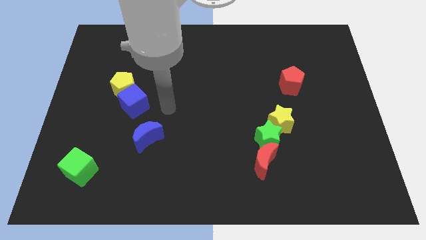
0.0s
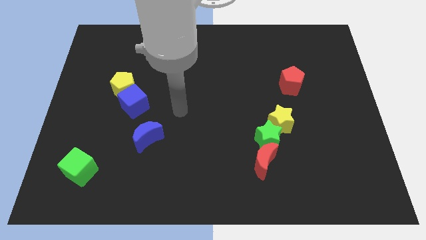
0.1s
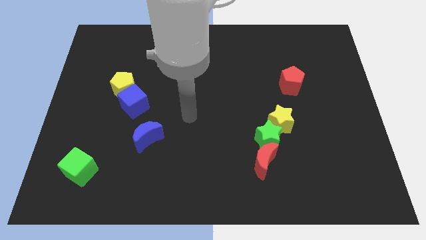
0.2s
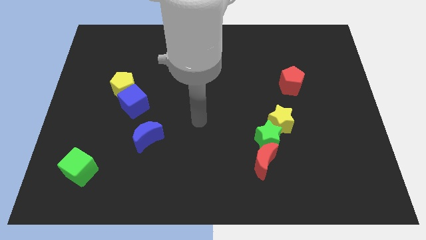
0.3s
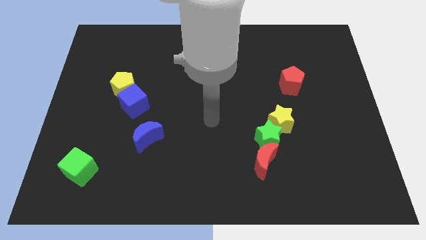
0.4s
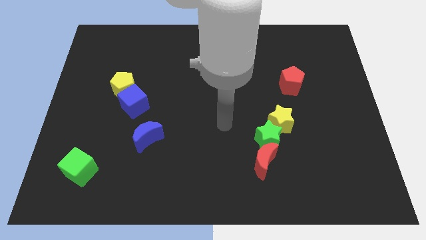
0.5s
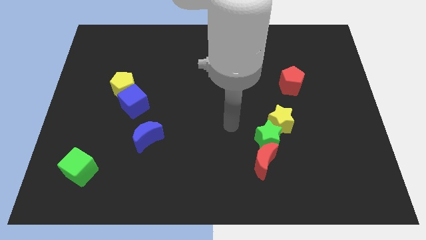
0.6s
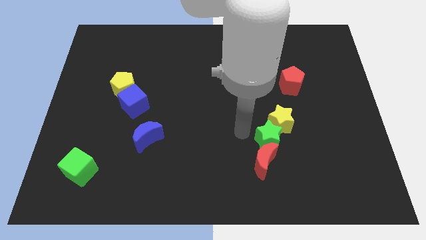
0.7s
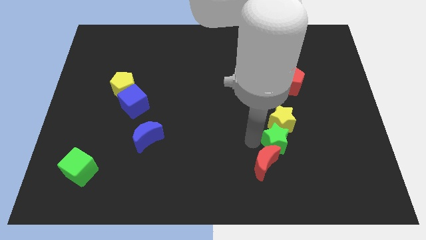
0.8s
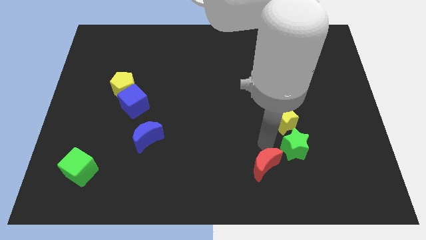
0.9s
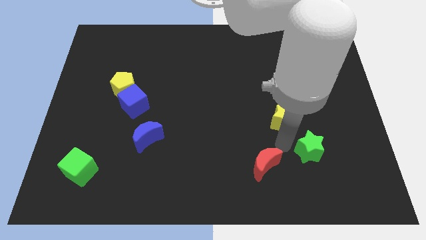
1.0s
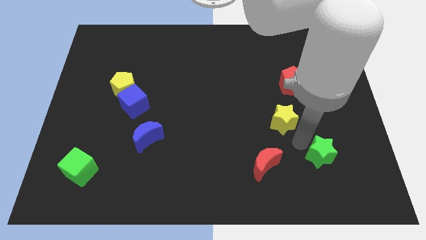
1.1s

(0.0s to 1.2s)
separate the yellow star from the green star

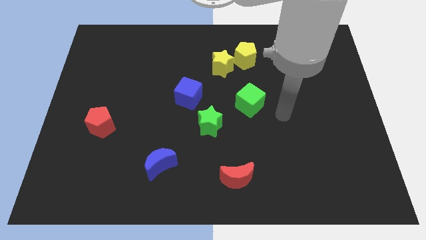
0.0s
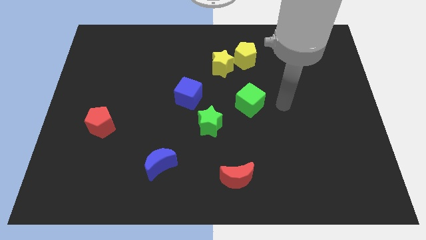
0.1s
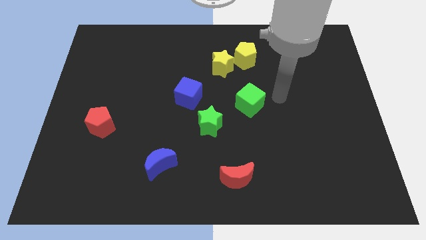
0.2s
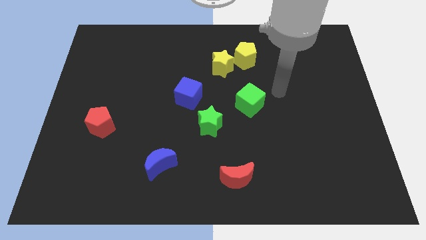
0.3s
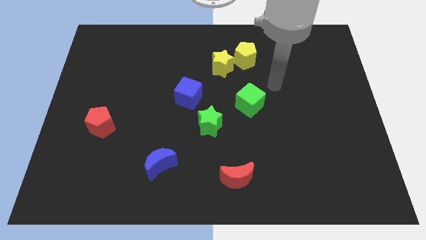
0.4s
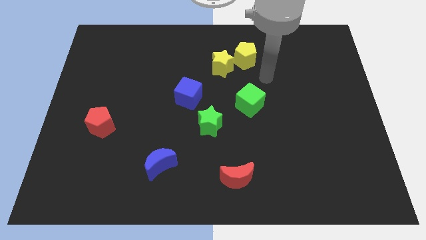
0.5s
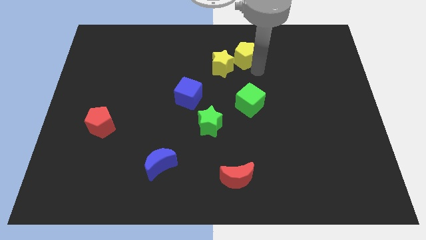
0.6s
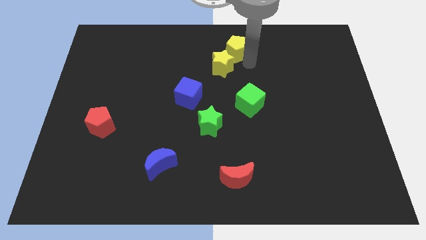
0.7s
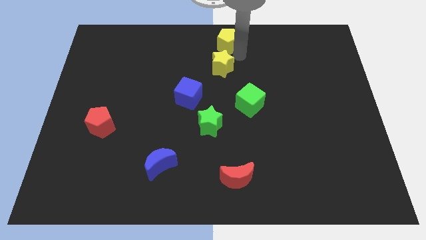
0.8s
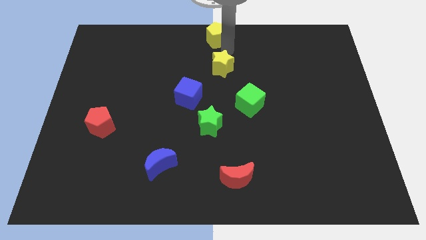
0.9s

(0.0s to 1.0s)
move the yellow star away from the yellow pentagon

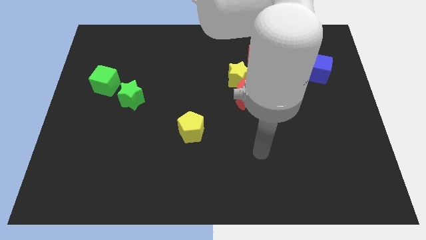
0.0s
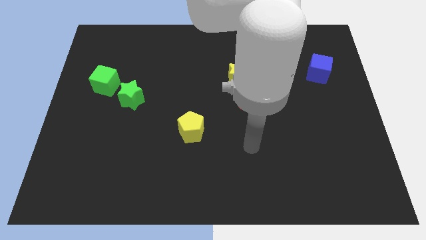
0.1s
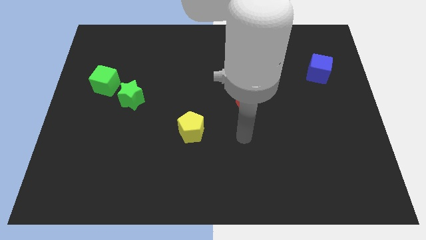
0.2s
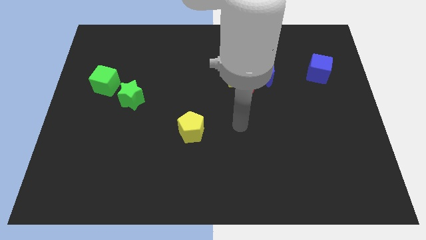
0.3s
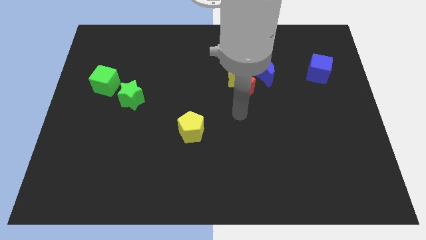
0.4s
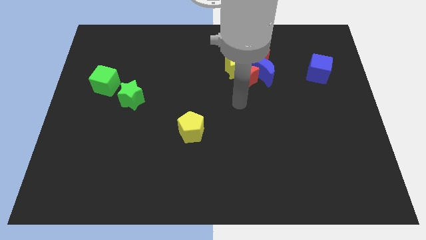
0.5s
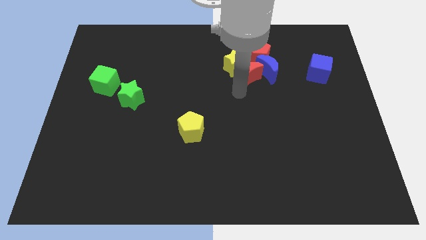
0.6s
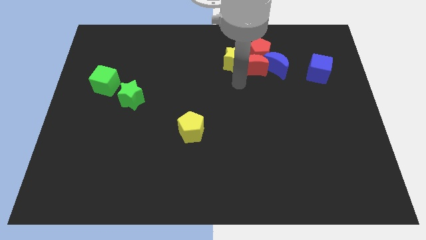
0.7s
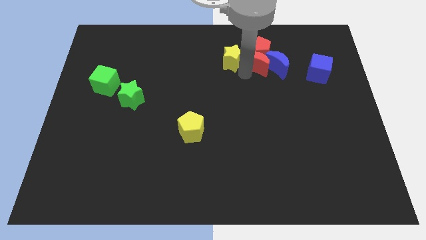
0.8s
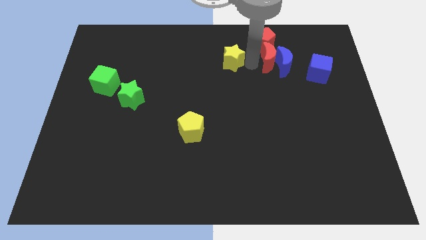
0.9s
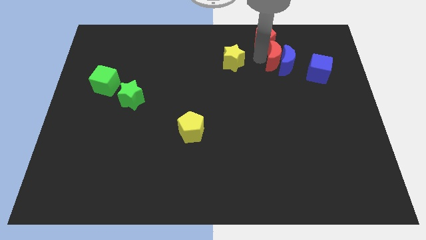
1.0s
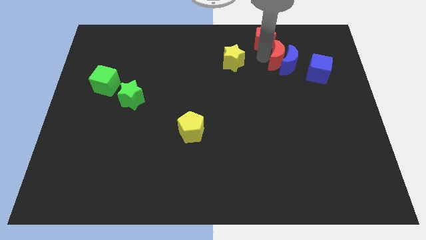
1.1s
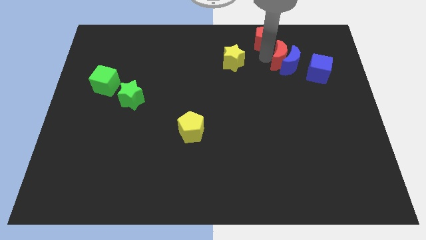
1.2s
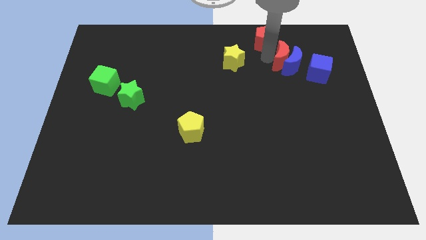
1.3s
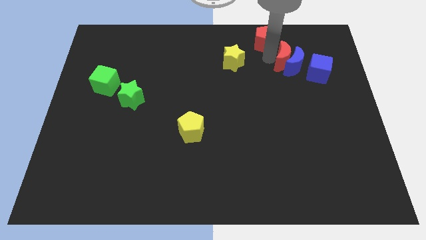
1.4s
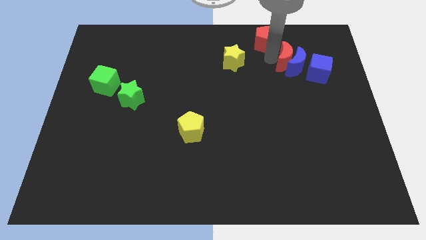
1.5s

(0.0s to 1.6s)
pull the blue moon apart from the red pentagon, yellow star, and red moon

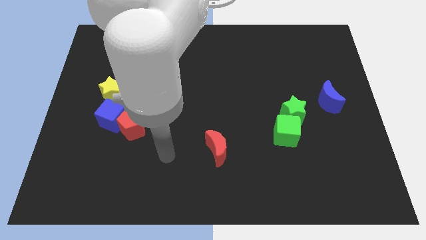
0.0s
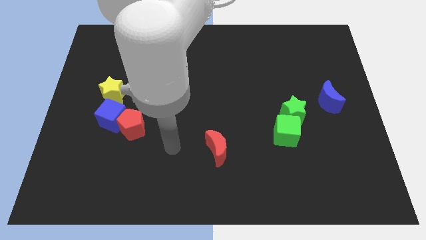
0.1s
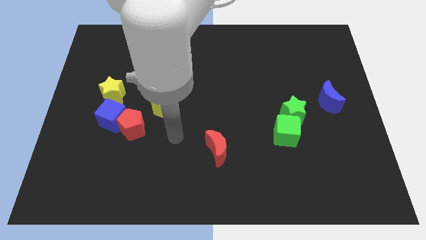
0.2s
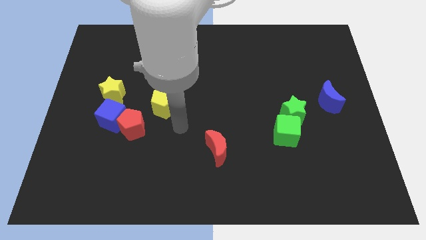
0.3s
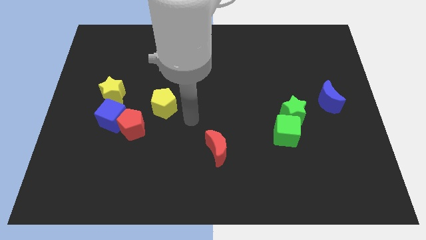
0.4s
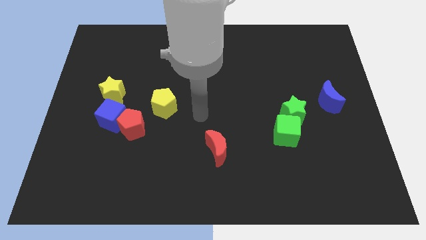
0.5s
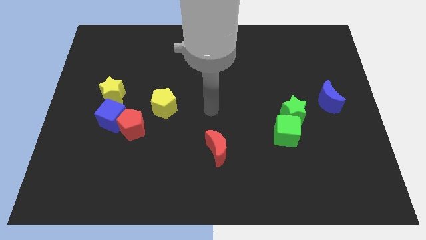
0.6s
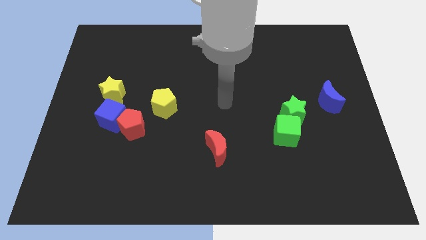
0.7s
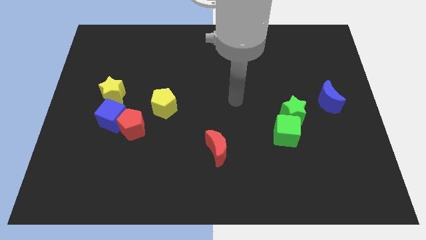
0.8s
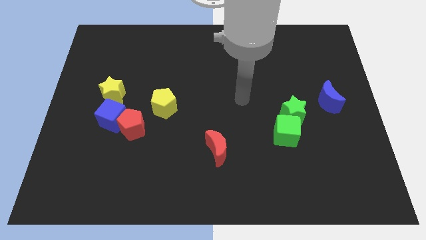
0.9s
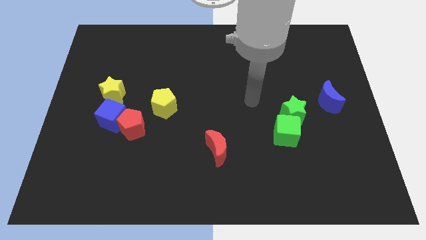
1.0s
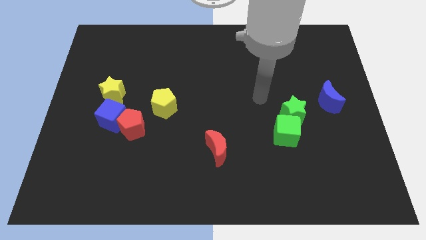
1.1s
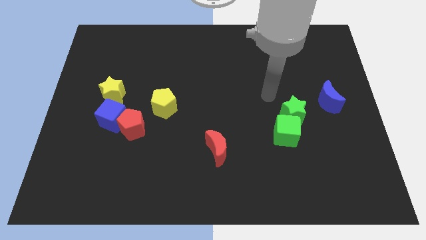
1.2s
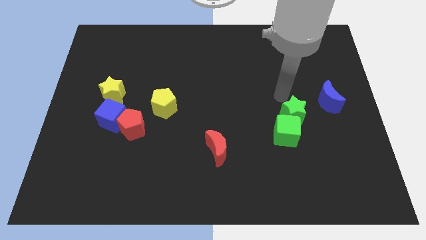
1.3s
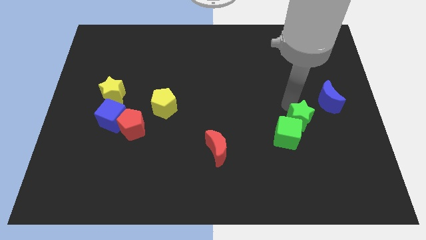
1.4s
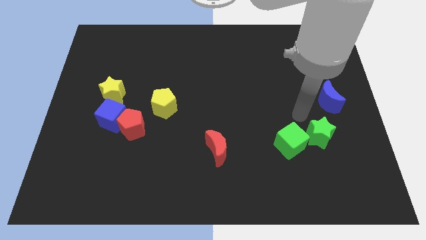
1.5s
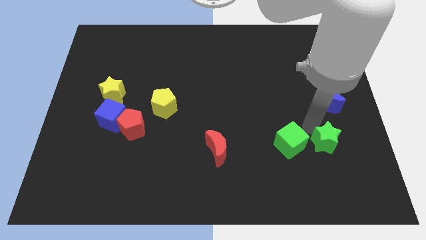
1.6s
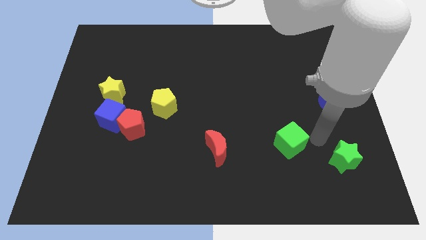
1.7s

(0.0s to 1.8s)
separate the green cube from the green star

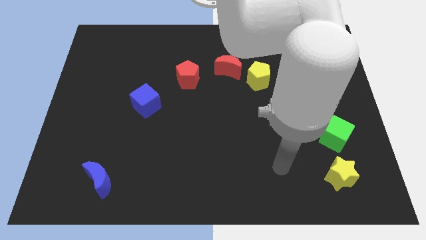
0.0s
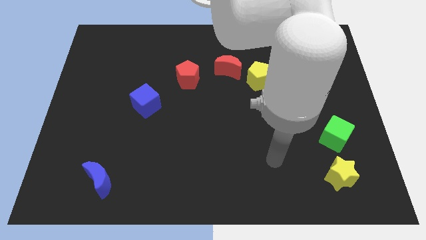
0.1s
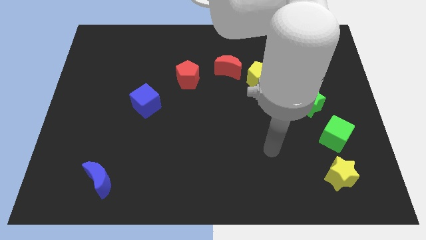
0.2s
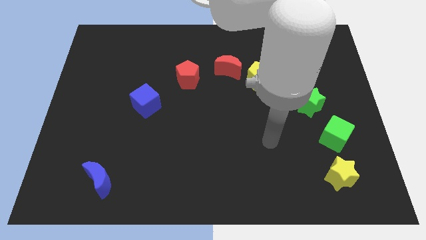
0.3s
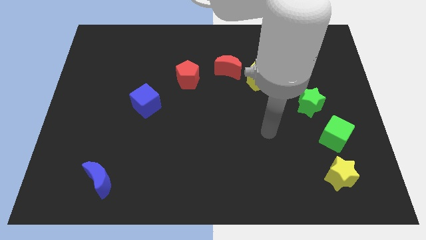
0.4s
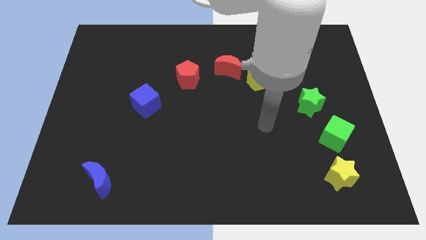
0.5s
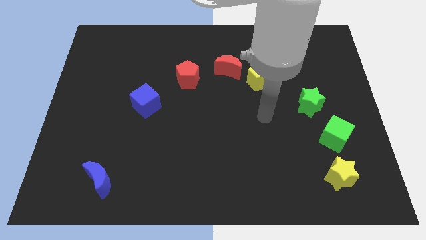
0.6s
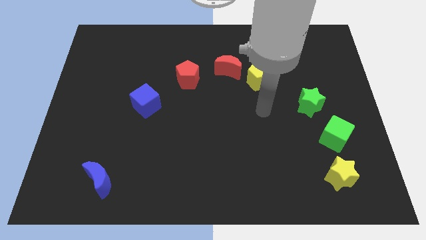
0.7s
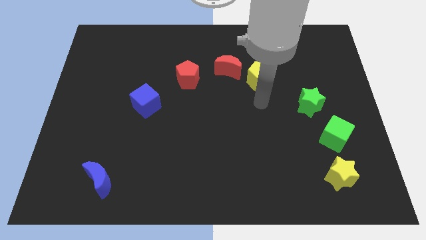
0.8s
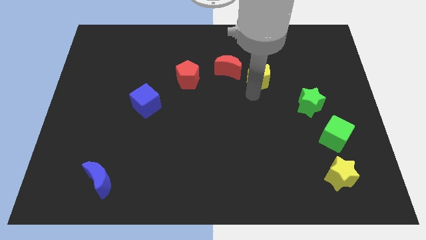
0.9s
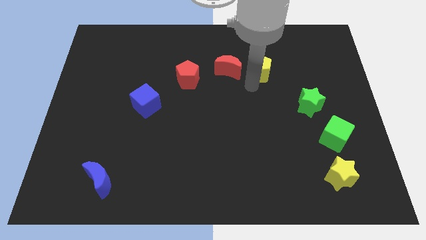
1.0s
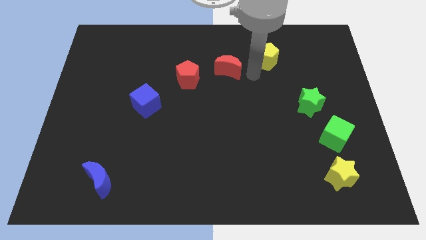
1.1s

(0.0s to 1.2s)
separate the red moon from the yellow pentagon

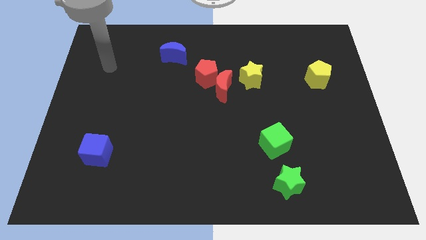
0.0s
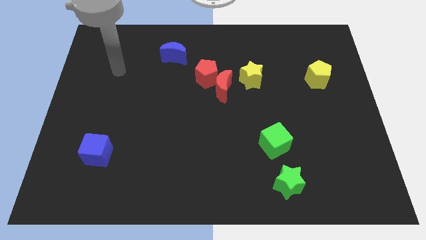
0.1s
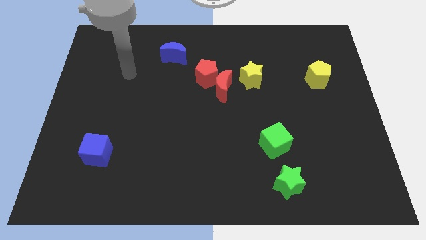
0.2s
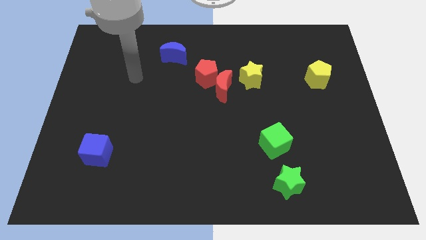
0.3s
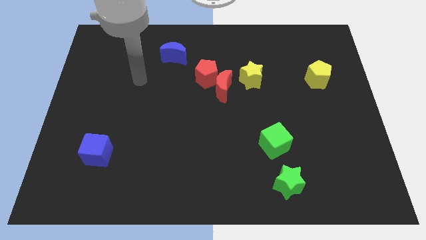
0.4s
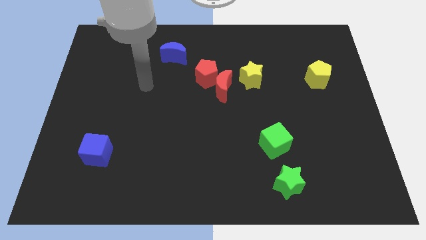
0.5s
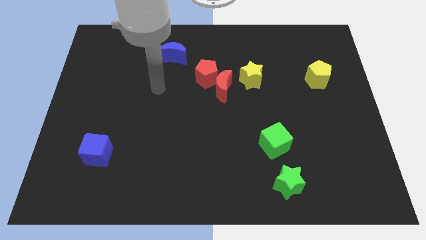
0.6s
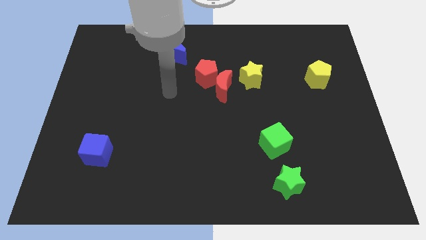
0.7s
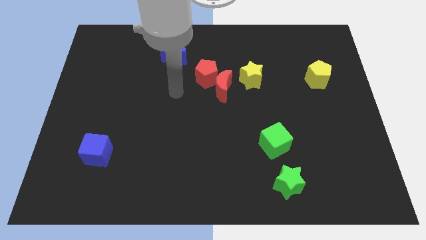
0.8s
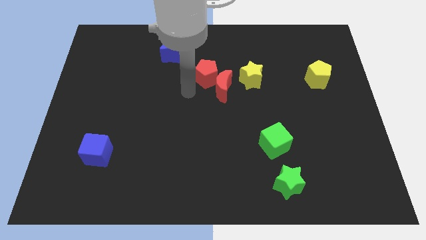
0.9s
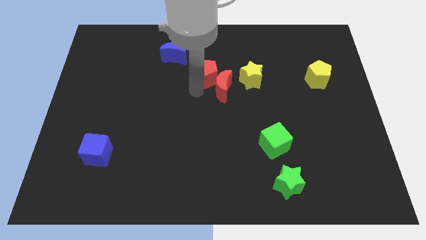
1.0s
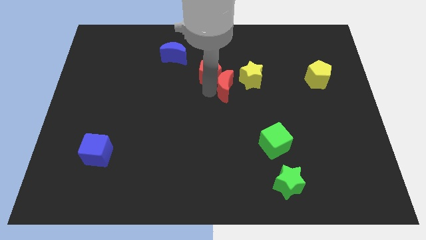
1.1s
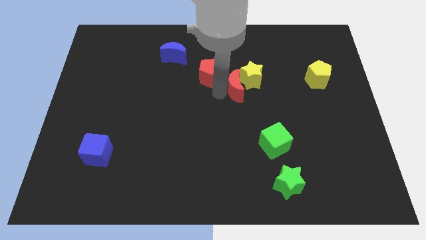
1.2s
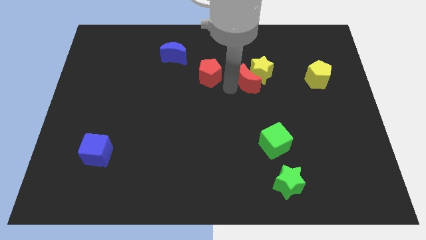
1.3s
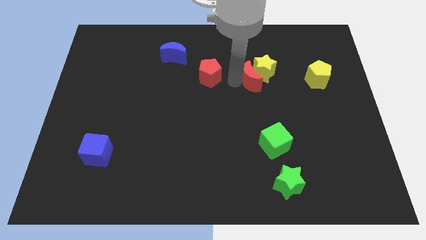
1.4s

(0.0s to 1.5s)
pull the red pentagon apart from the red moon

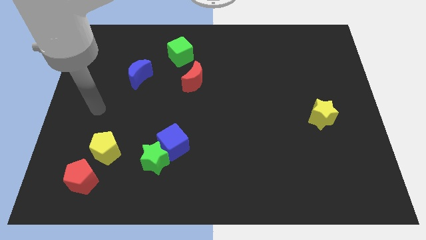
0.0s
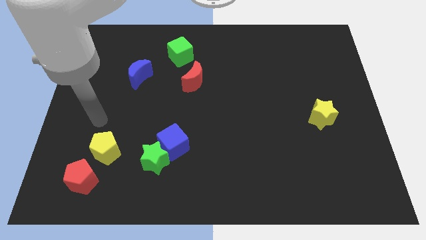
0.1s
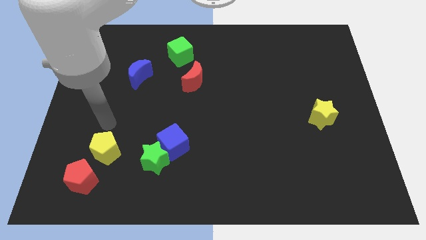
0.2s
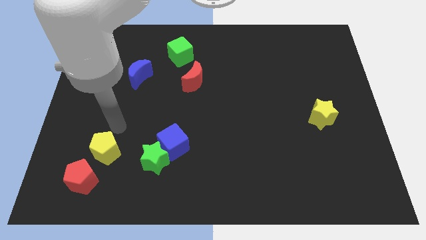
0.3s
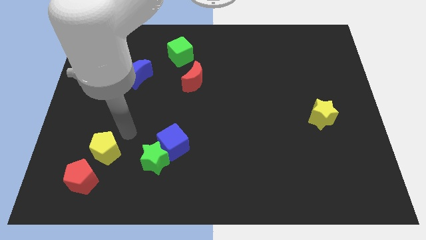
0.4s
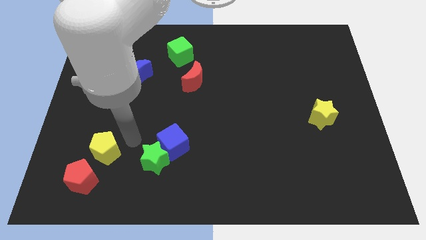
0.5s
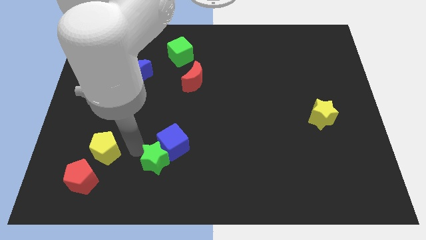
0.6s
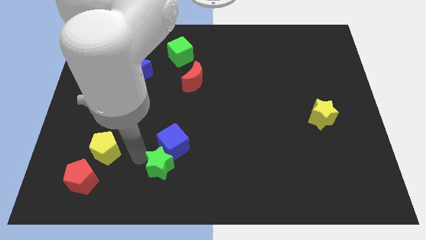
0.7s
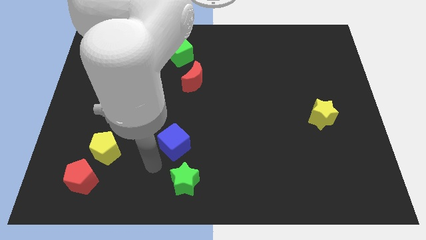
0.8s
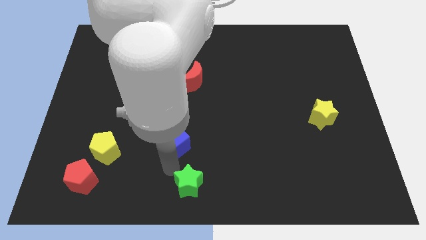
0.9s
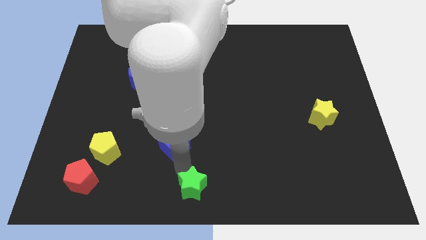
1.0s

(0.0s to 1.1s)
pull the blue cube apart from the green star

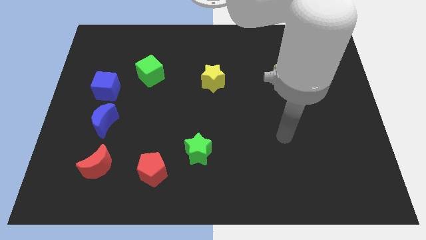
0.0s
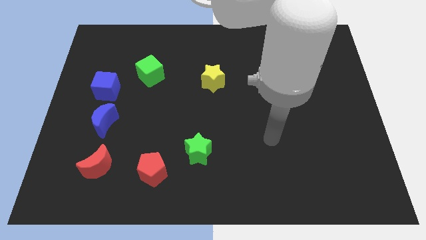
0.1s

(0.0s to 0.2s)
move the red pentagon away from the green star
